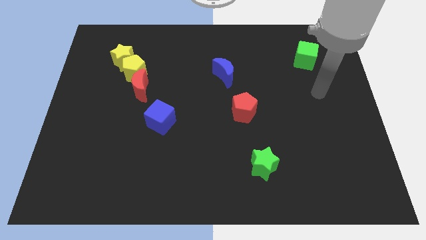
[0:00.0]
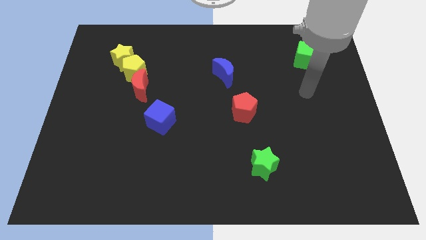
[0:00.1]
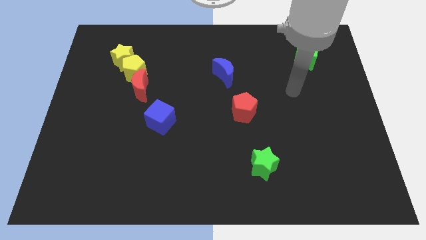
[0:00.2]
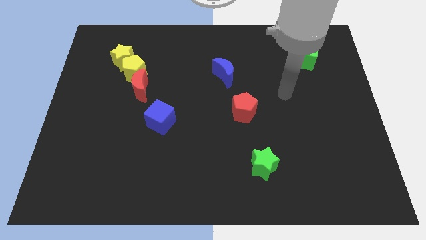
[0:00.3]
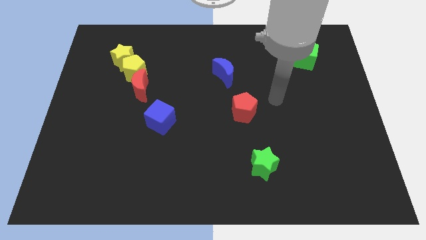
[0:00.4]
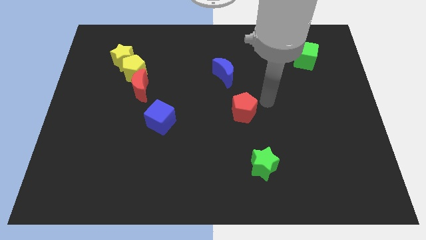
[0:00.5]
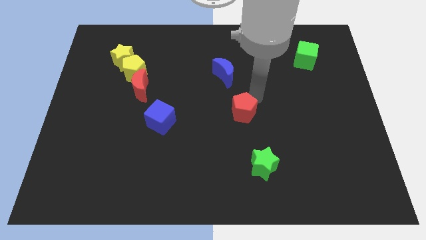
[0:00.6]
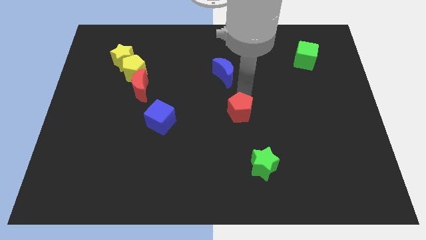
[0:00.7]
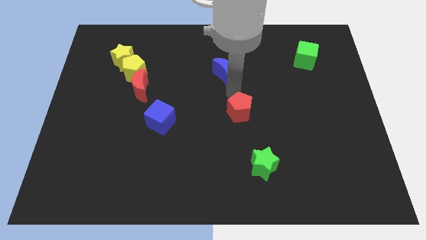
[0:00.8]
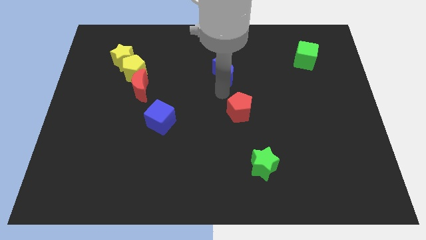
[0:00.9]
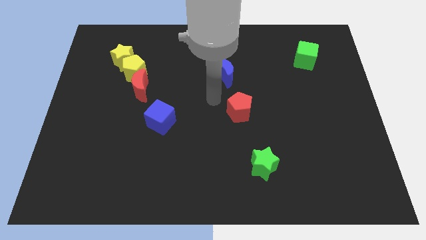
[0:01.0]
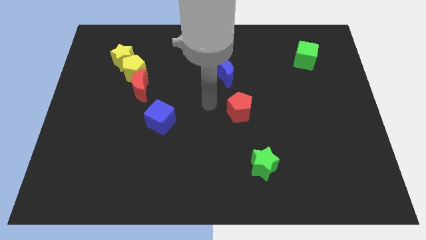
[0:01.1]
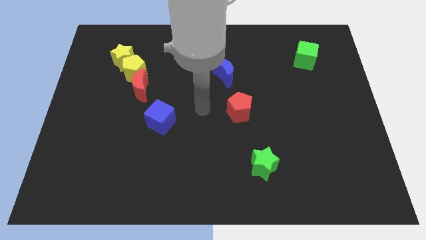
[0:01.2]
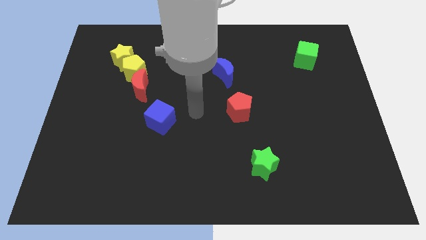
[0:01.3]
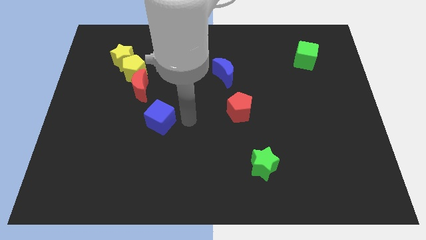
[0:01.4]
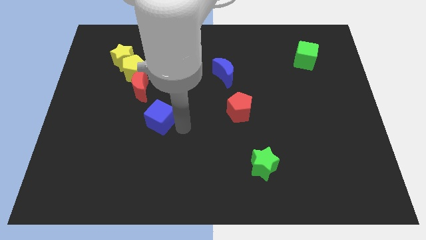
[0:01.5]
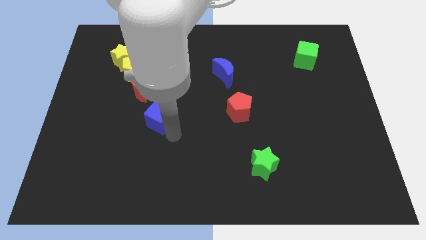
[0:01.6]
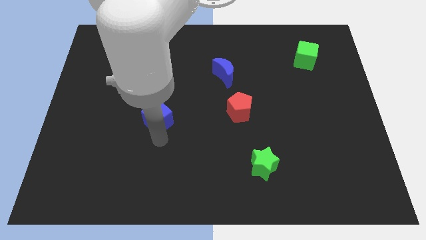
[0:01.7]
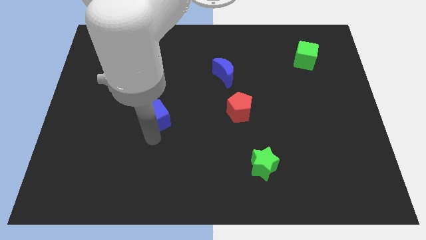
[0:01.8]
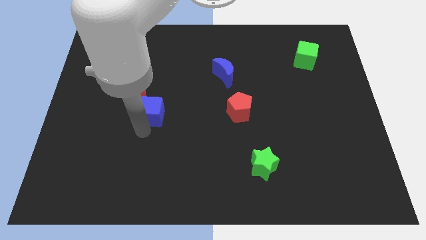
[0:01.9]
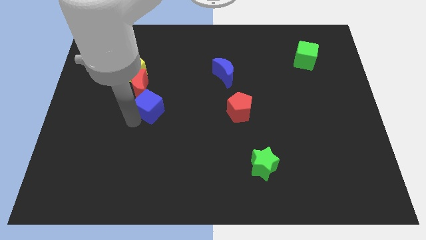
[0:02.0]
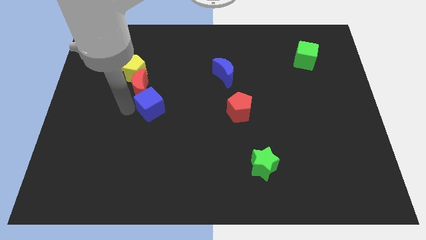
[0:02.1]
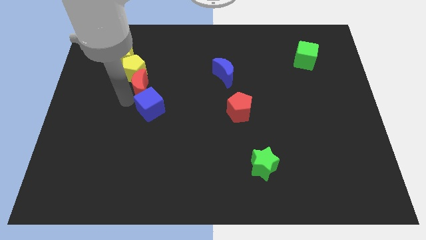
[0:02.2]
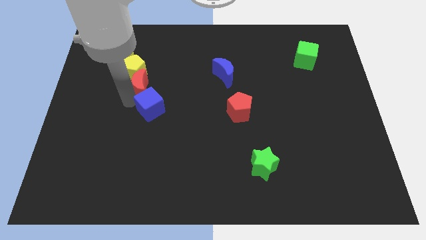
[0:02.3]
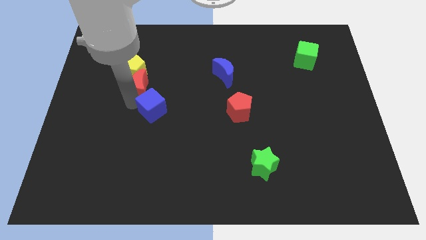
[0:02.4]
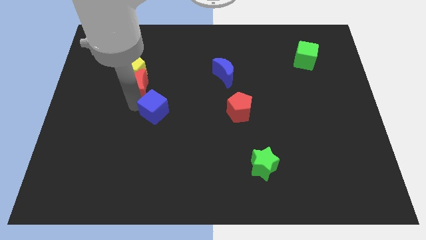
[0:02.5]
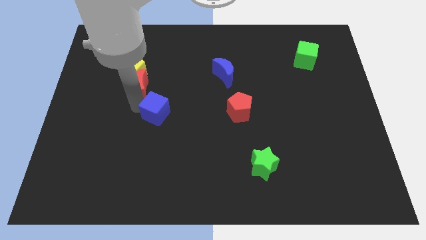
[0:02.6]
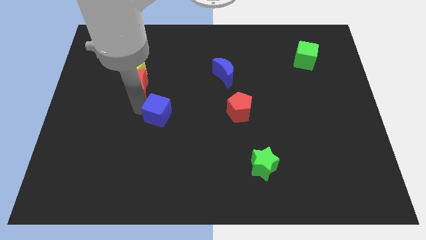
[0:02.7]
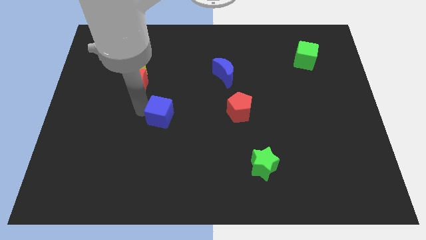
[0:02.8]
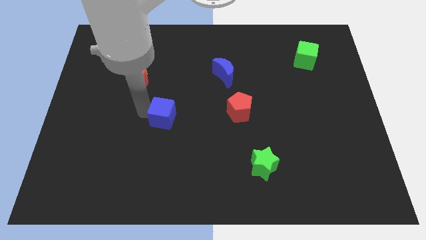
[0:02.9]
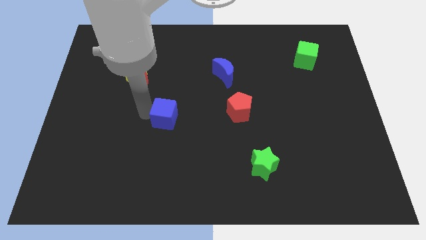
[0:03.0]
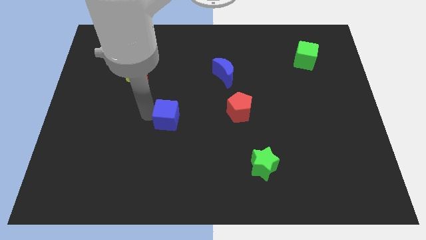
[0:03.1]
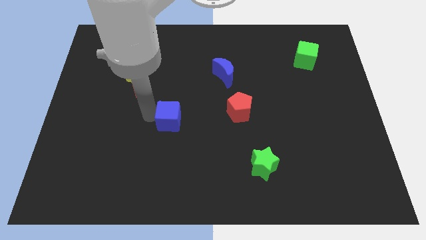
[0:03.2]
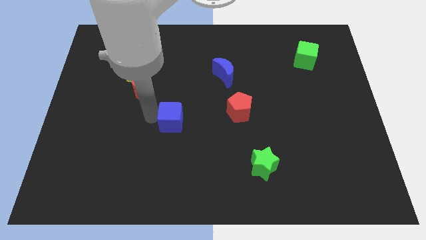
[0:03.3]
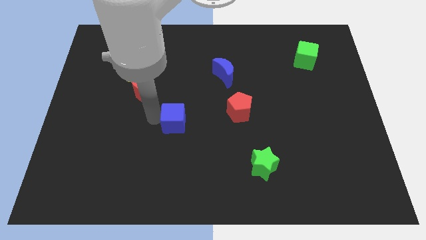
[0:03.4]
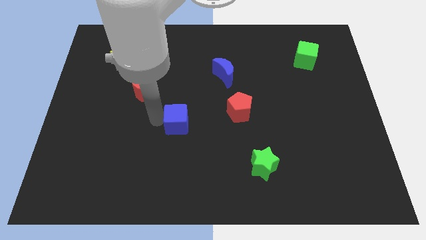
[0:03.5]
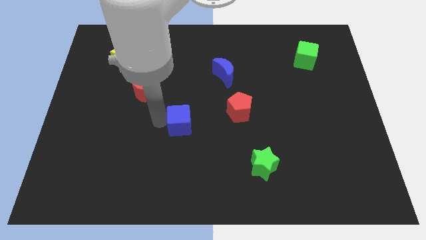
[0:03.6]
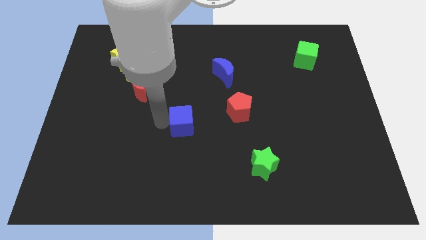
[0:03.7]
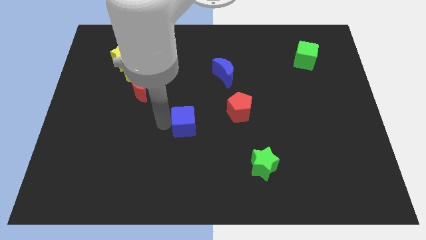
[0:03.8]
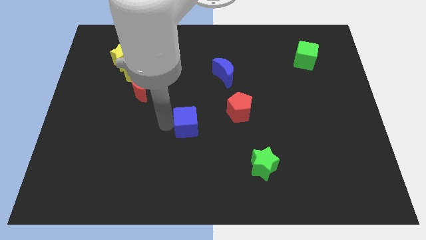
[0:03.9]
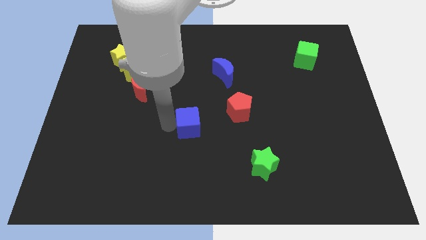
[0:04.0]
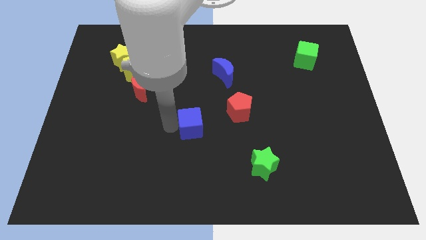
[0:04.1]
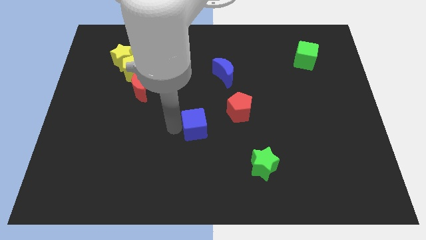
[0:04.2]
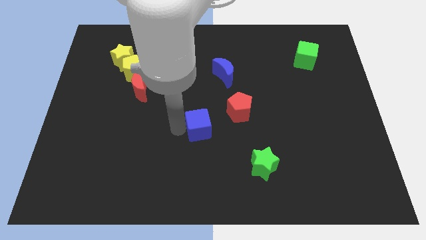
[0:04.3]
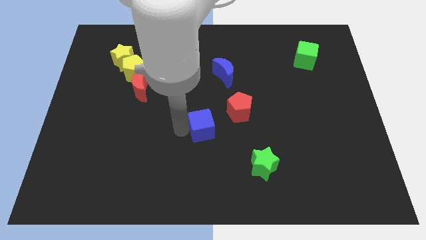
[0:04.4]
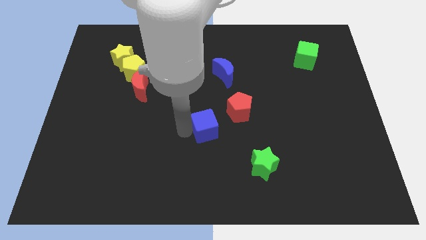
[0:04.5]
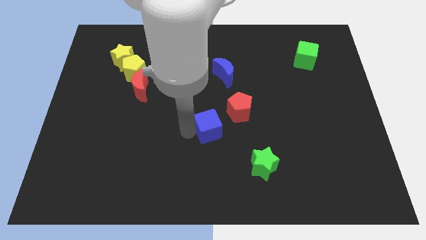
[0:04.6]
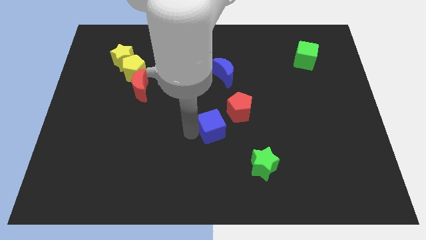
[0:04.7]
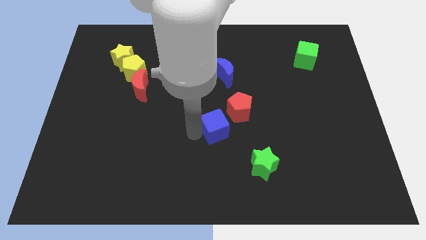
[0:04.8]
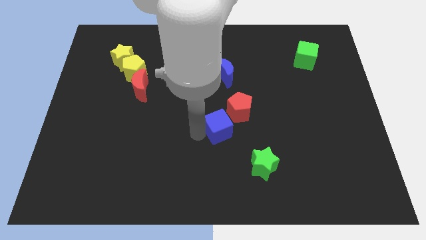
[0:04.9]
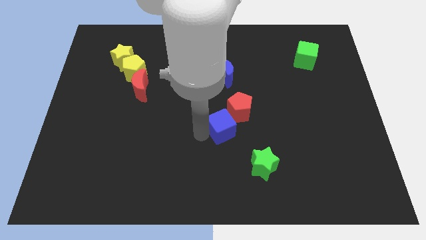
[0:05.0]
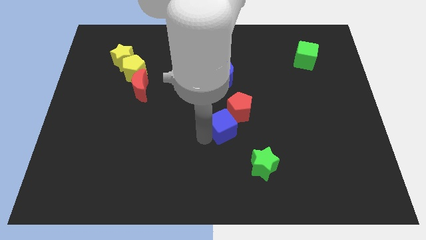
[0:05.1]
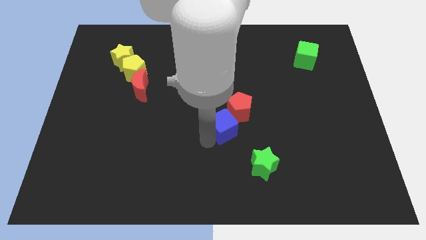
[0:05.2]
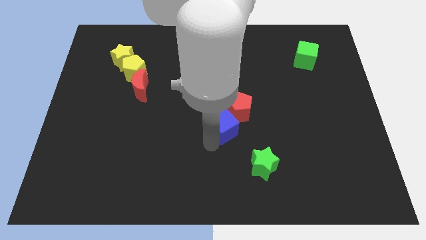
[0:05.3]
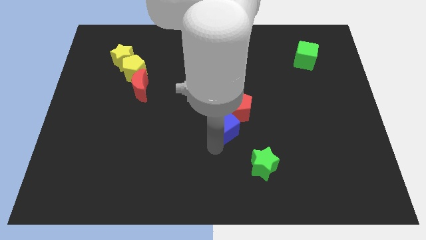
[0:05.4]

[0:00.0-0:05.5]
move the blue cube to the red pentagon

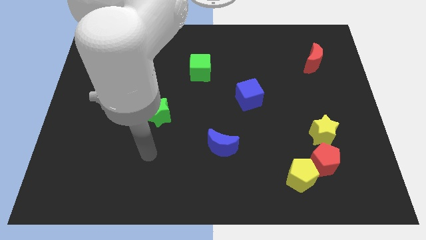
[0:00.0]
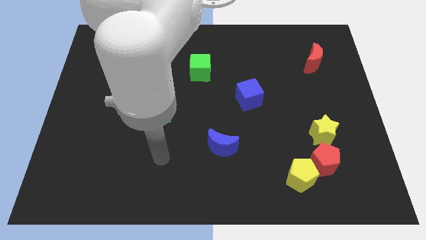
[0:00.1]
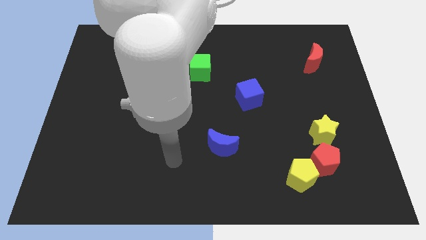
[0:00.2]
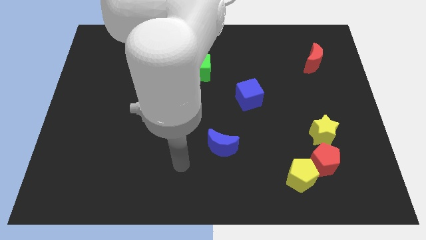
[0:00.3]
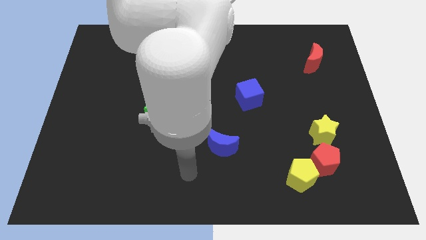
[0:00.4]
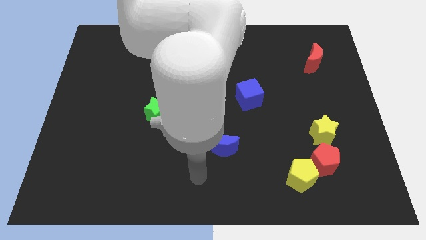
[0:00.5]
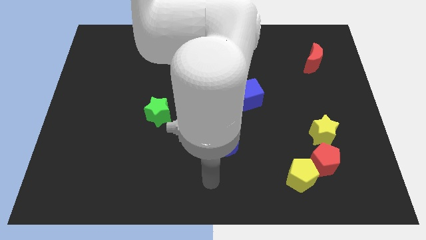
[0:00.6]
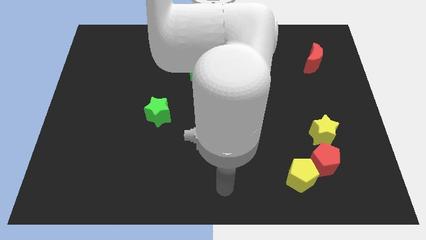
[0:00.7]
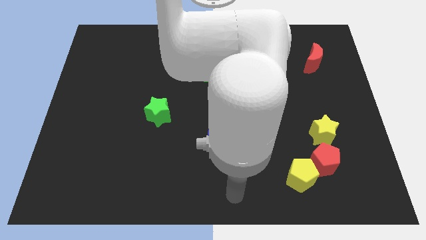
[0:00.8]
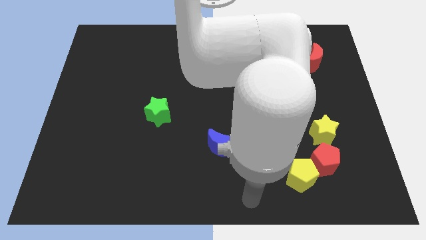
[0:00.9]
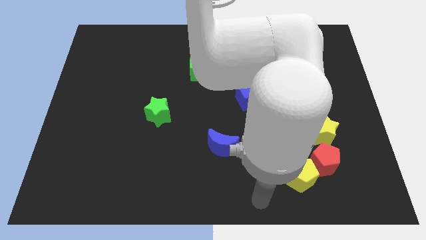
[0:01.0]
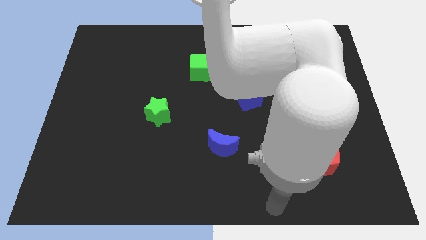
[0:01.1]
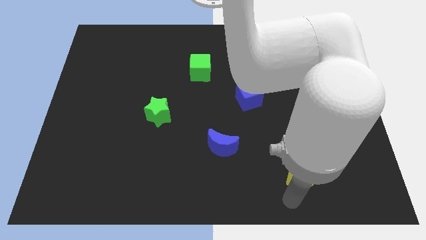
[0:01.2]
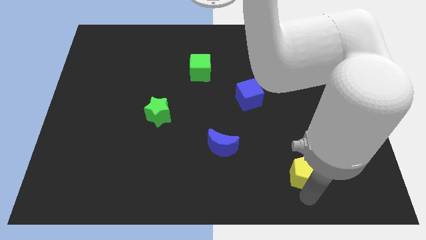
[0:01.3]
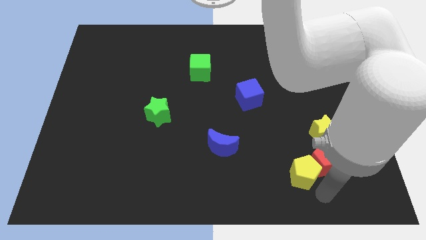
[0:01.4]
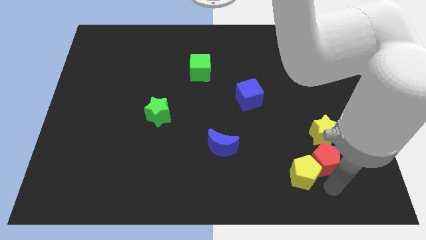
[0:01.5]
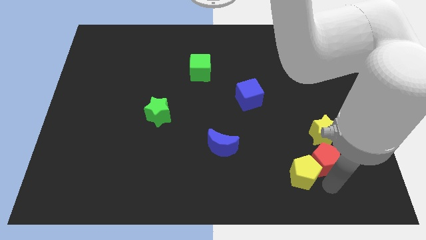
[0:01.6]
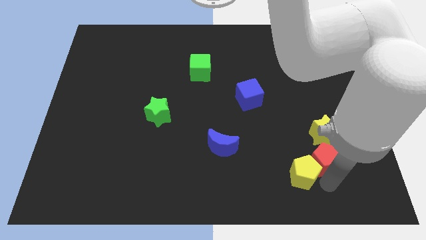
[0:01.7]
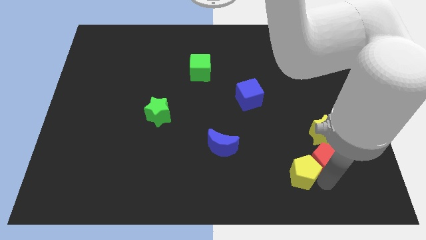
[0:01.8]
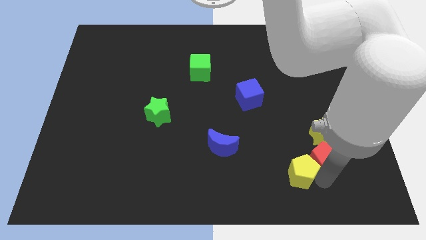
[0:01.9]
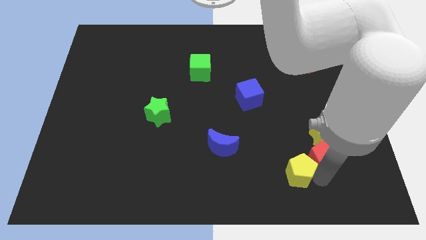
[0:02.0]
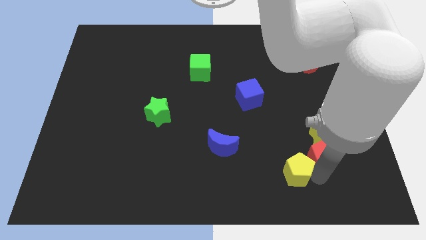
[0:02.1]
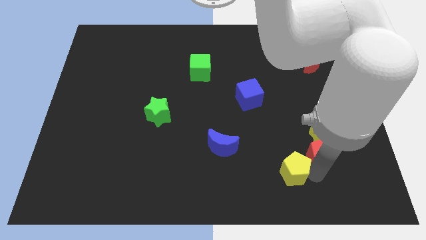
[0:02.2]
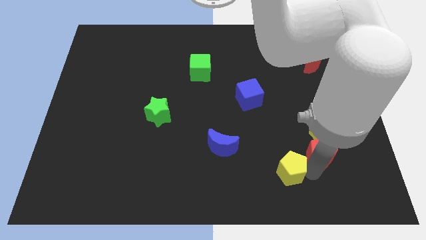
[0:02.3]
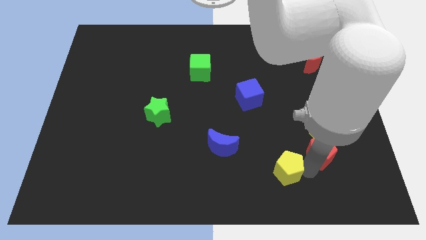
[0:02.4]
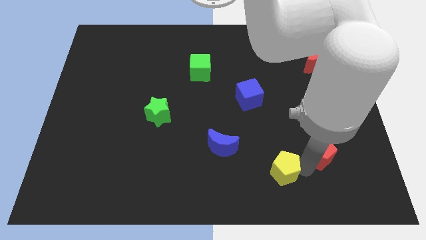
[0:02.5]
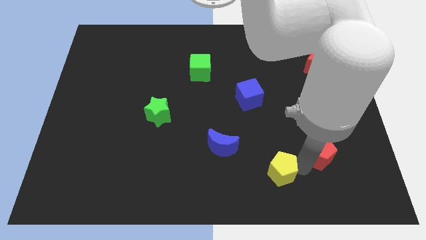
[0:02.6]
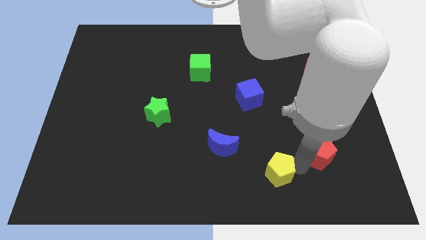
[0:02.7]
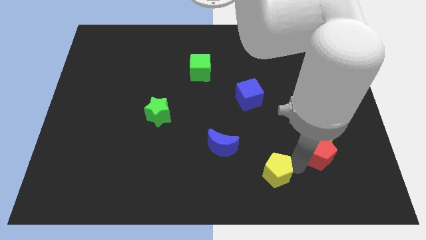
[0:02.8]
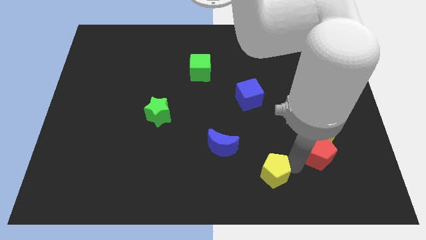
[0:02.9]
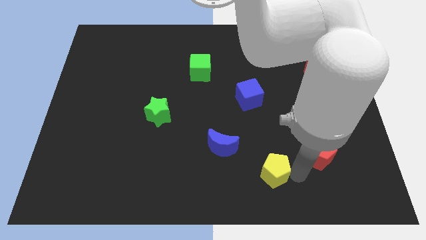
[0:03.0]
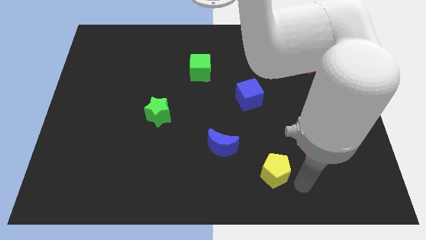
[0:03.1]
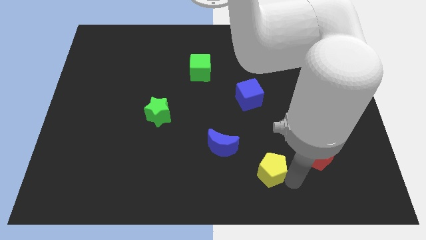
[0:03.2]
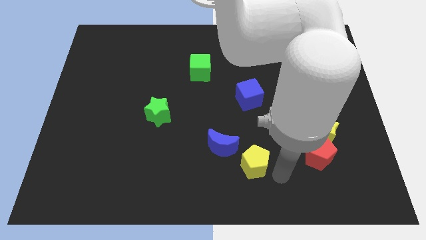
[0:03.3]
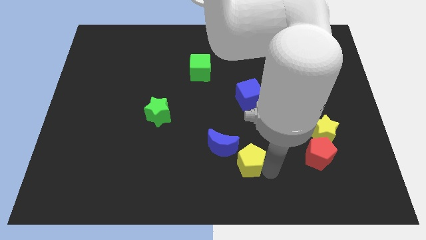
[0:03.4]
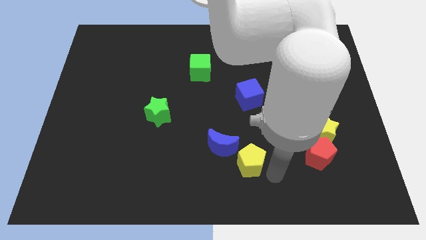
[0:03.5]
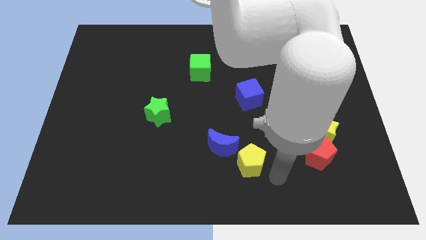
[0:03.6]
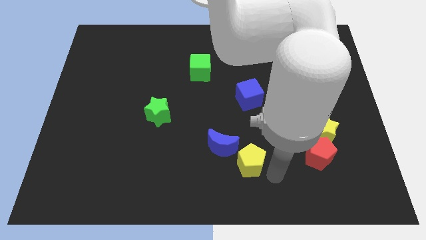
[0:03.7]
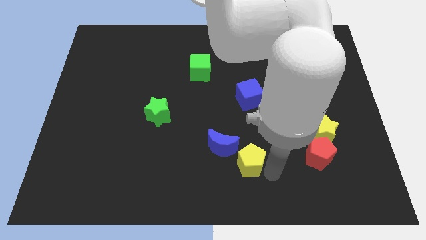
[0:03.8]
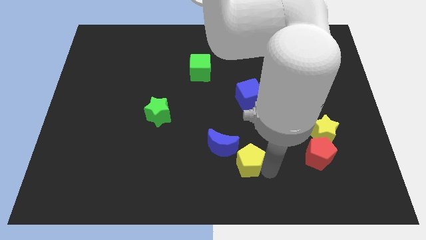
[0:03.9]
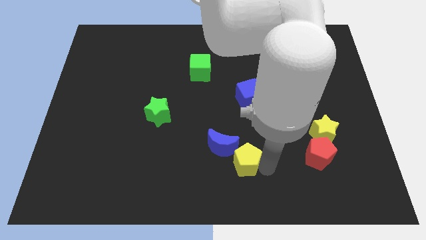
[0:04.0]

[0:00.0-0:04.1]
push the yellow pentagon towards the blue moon
